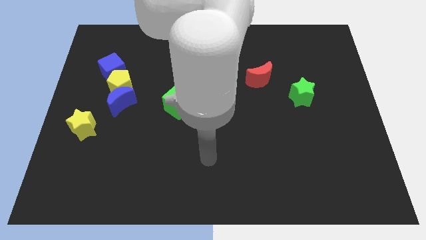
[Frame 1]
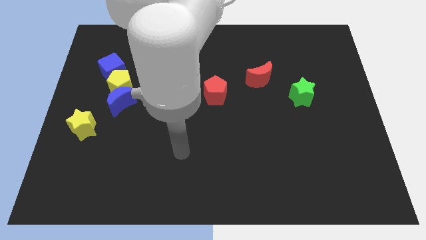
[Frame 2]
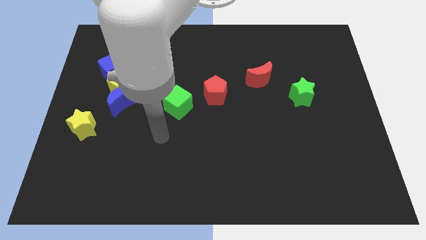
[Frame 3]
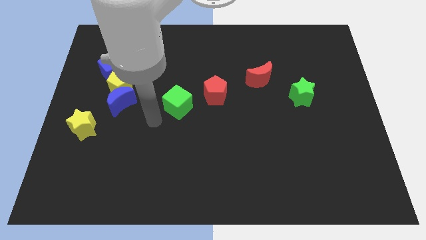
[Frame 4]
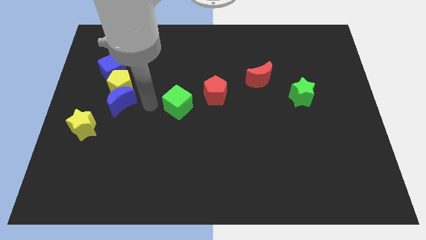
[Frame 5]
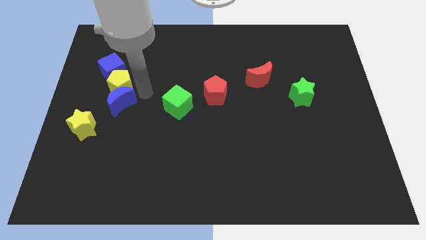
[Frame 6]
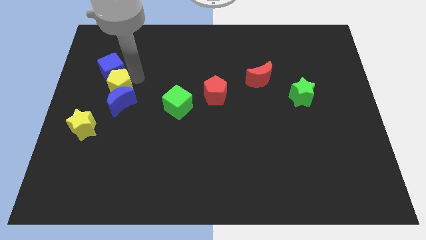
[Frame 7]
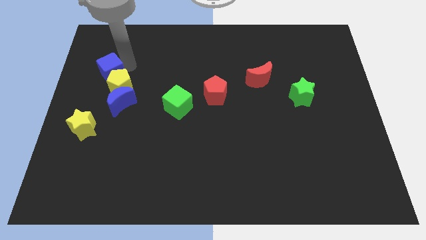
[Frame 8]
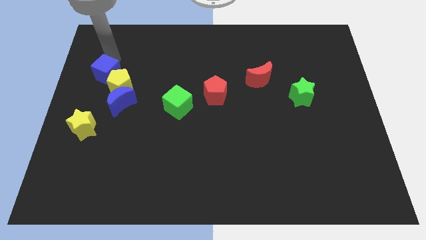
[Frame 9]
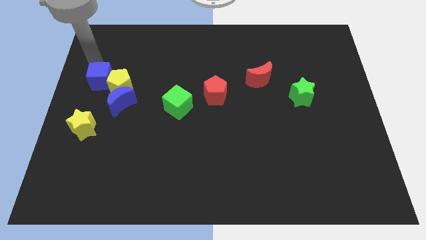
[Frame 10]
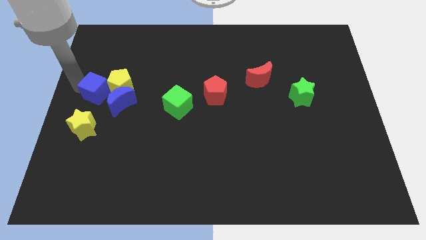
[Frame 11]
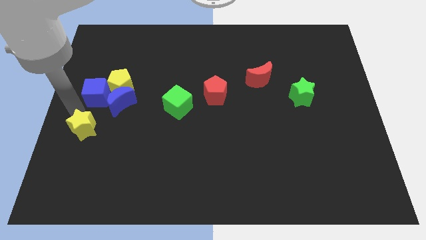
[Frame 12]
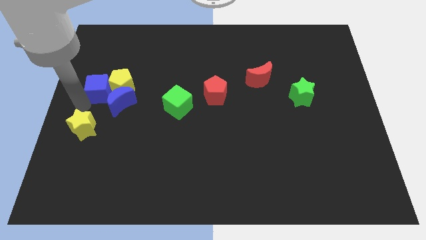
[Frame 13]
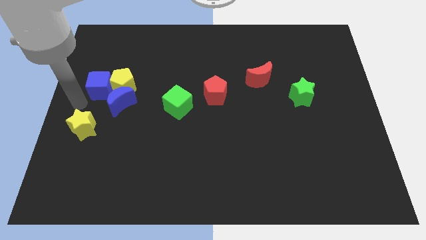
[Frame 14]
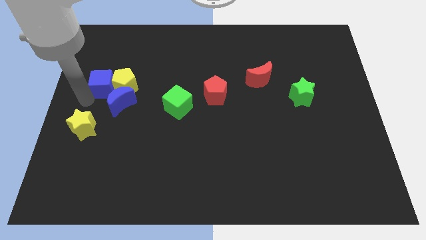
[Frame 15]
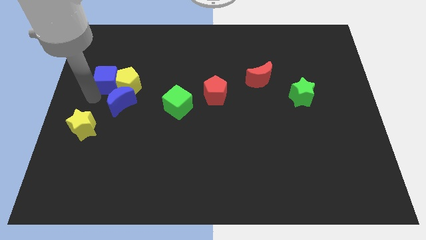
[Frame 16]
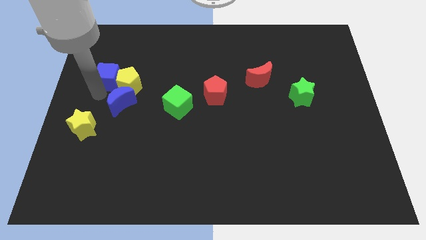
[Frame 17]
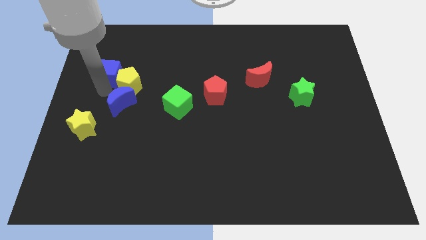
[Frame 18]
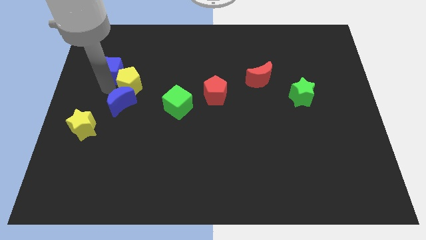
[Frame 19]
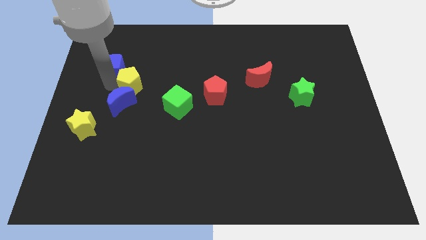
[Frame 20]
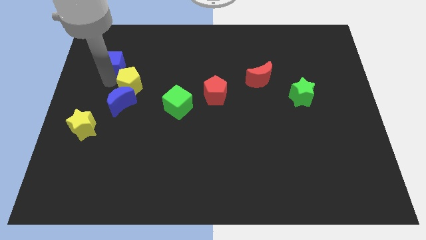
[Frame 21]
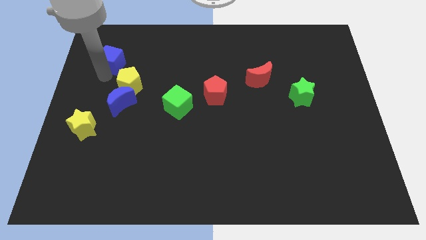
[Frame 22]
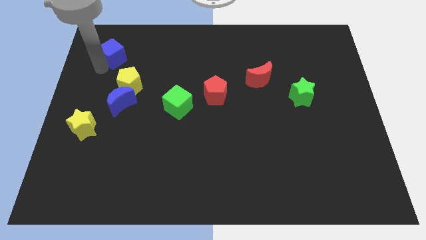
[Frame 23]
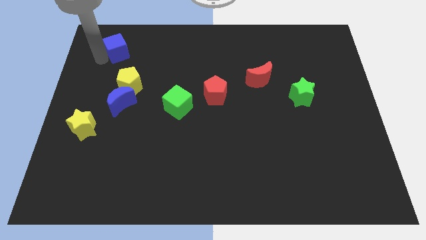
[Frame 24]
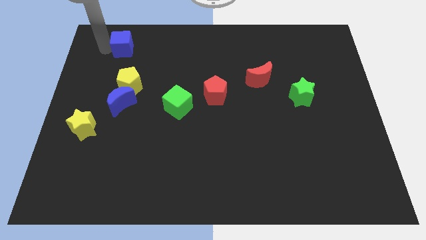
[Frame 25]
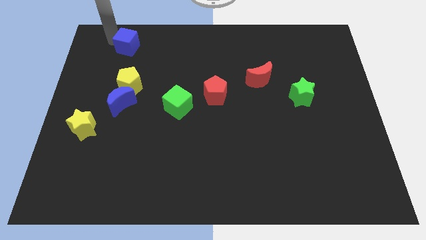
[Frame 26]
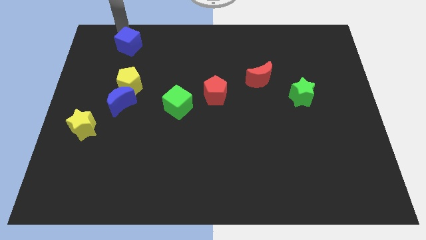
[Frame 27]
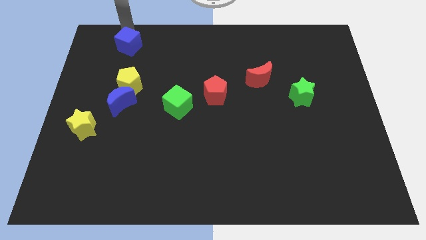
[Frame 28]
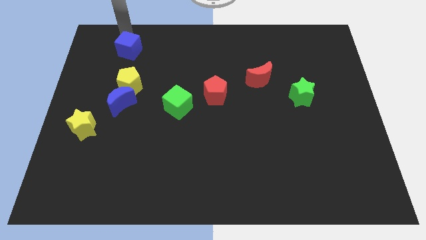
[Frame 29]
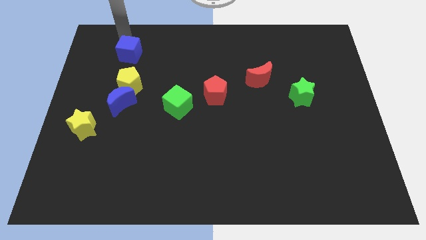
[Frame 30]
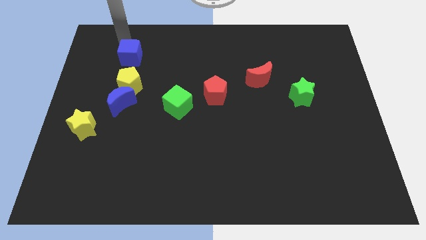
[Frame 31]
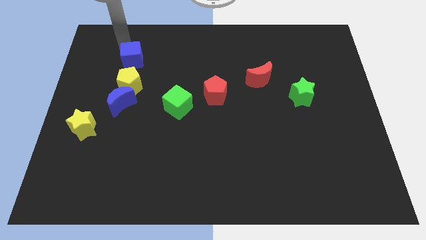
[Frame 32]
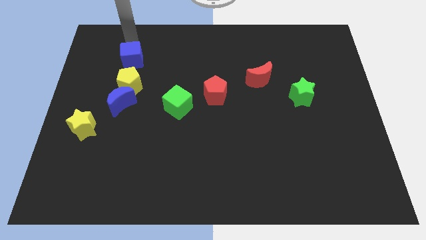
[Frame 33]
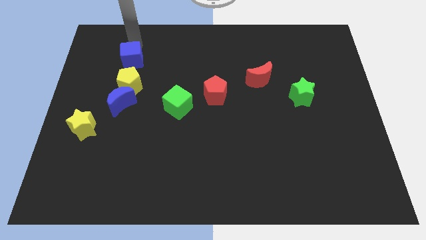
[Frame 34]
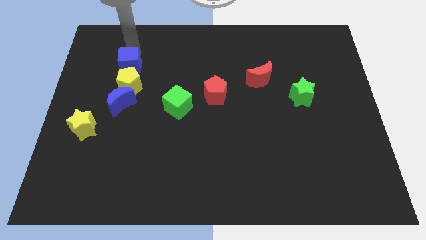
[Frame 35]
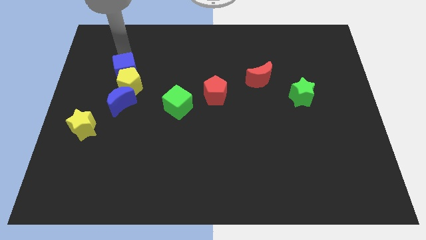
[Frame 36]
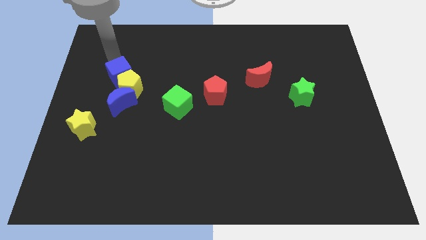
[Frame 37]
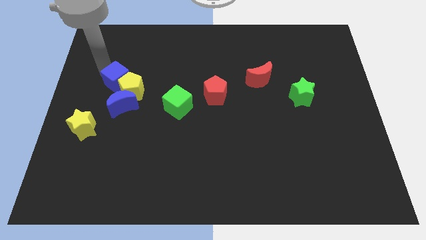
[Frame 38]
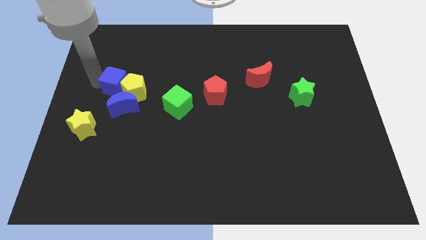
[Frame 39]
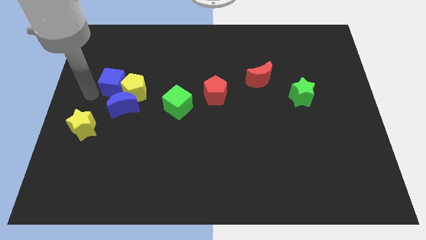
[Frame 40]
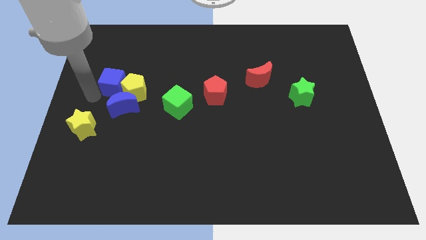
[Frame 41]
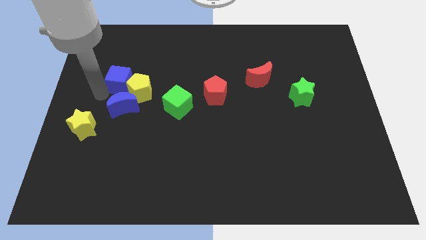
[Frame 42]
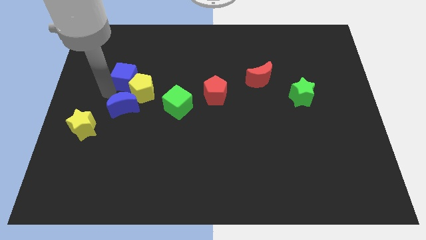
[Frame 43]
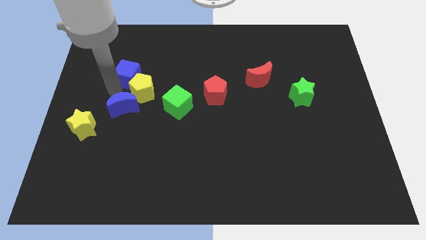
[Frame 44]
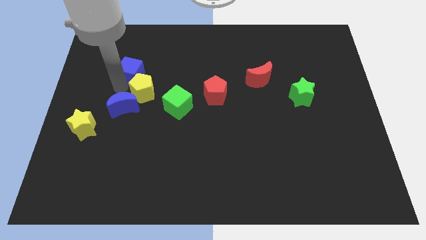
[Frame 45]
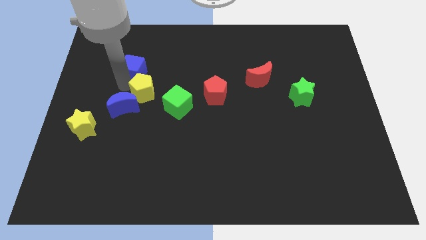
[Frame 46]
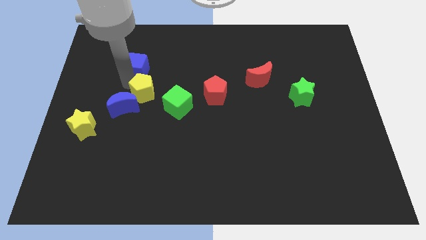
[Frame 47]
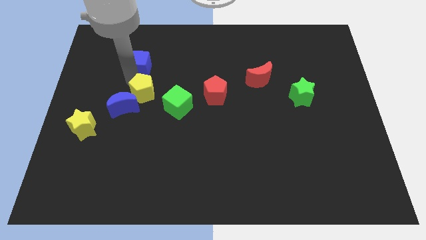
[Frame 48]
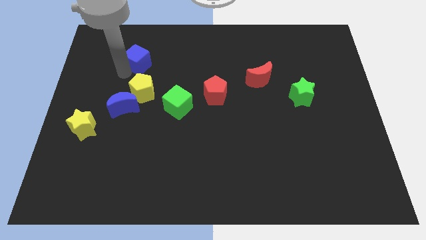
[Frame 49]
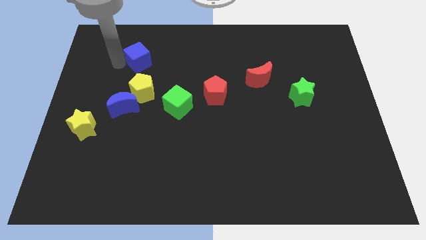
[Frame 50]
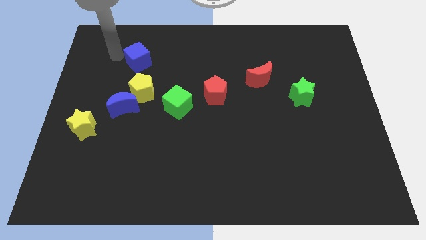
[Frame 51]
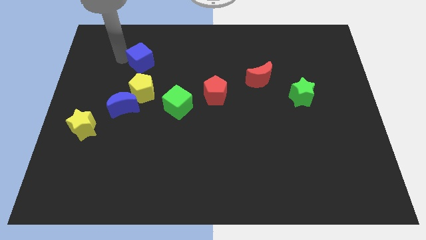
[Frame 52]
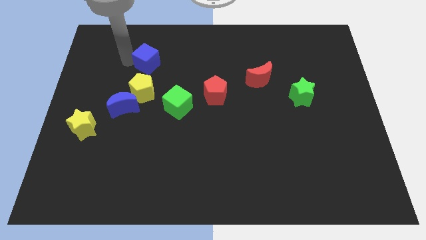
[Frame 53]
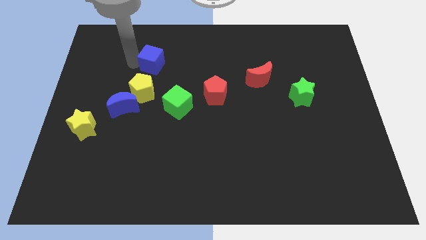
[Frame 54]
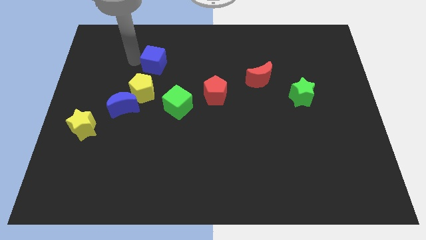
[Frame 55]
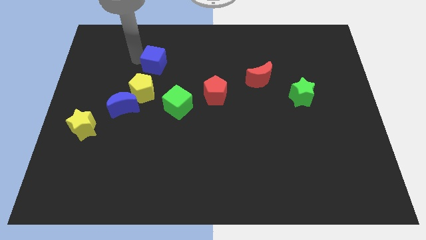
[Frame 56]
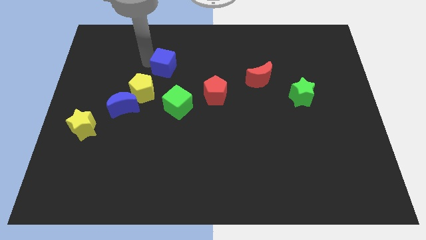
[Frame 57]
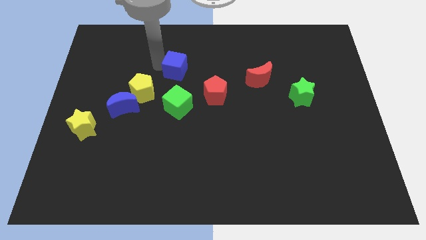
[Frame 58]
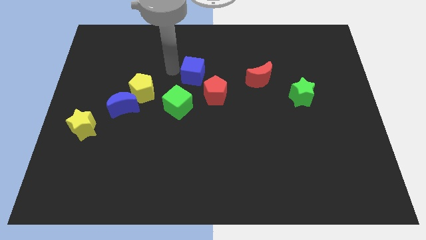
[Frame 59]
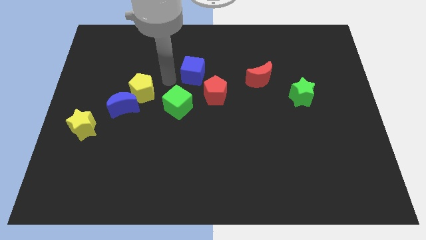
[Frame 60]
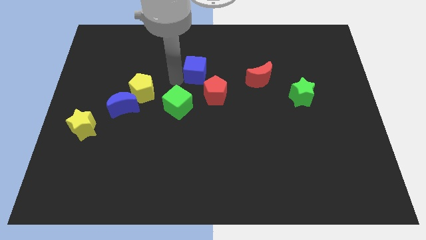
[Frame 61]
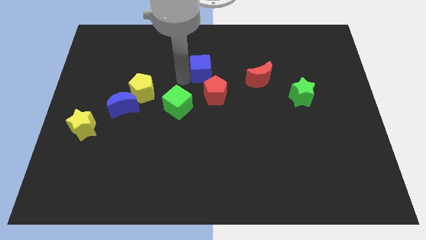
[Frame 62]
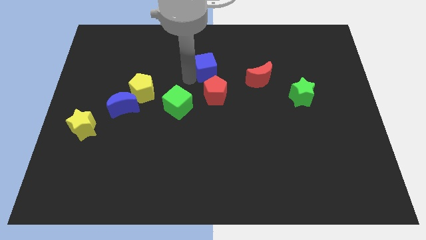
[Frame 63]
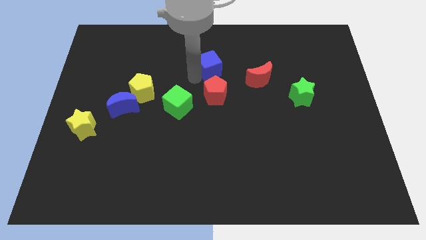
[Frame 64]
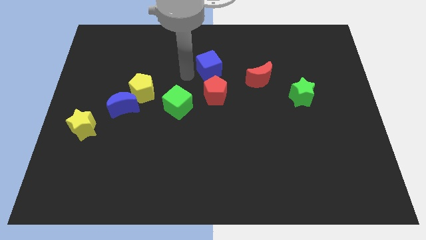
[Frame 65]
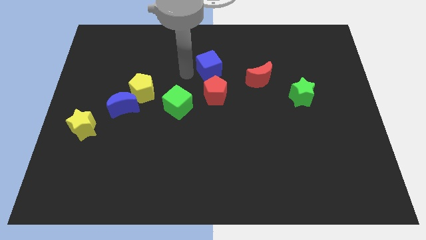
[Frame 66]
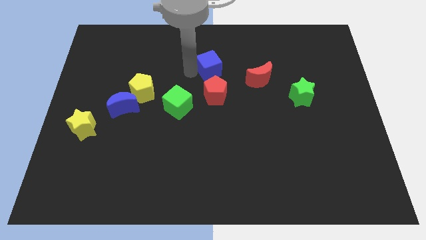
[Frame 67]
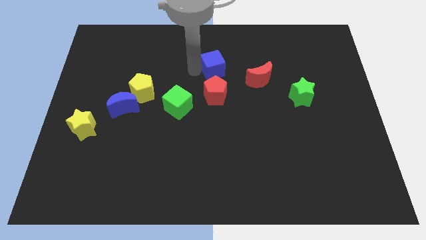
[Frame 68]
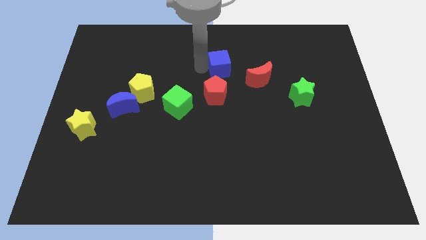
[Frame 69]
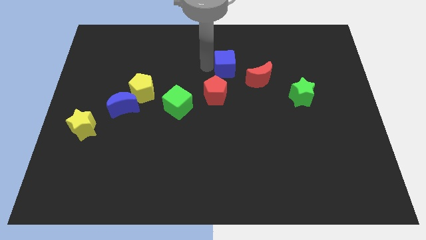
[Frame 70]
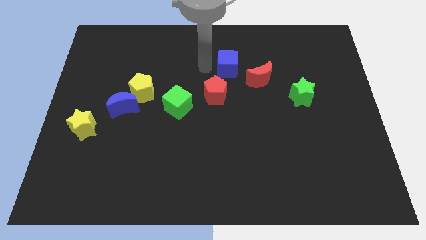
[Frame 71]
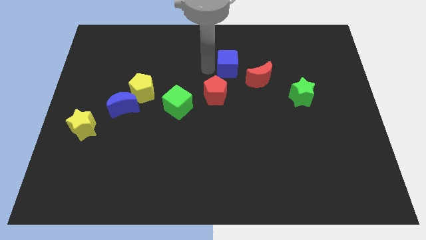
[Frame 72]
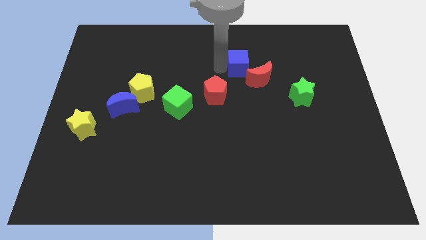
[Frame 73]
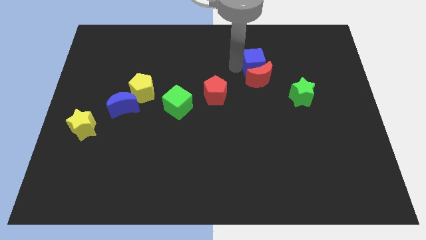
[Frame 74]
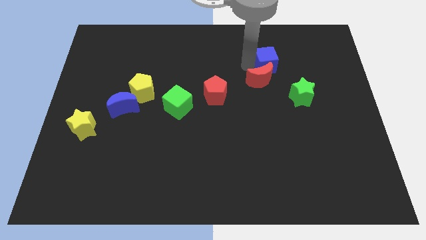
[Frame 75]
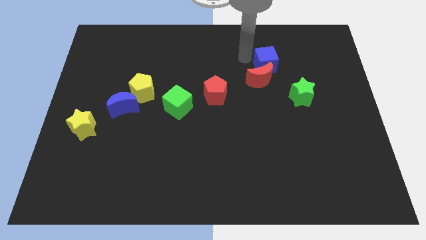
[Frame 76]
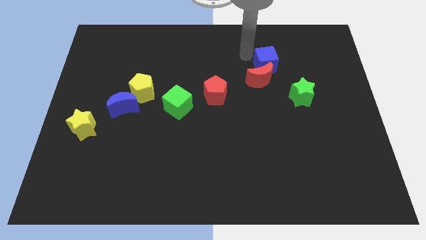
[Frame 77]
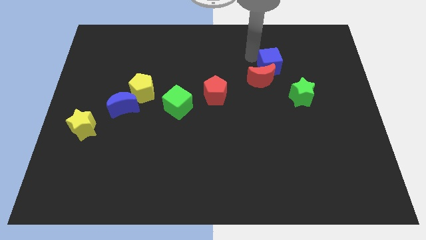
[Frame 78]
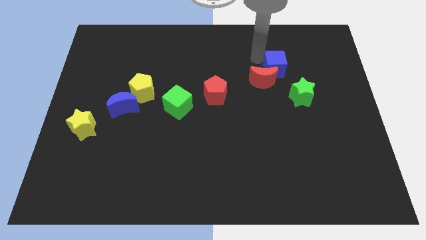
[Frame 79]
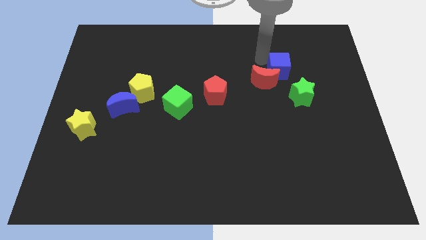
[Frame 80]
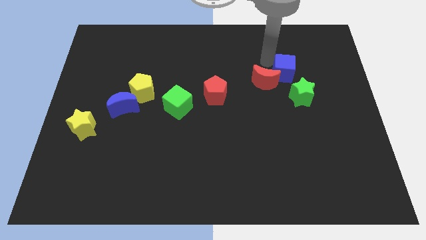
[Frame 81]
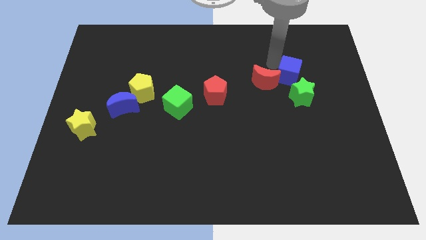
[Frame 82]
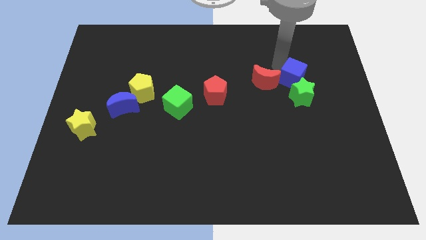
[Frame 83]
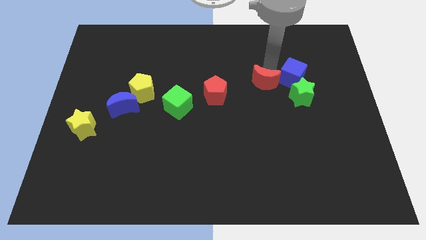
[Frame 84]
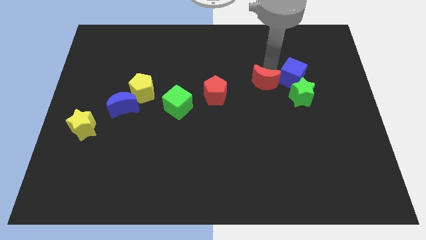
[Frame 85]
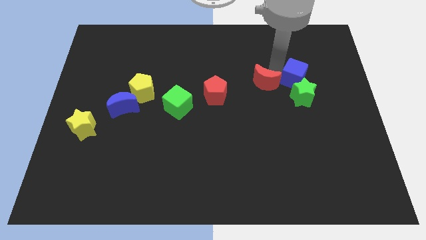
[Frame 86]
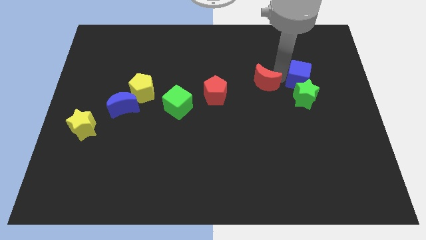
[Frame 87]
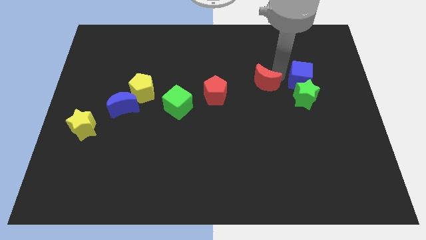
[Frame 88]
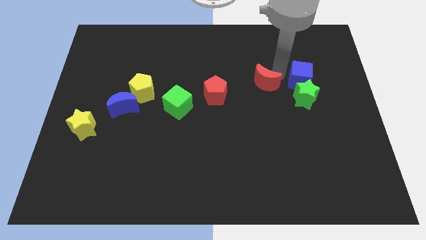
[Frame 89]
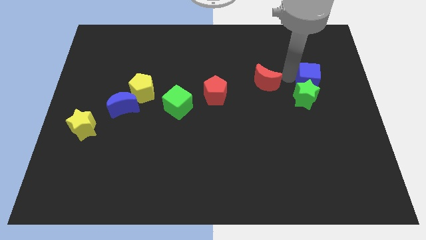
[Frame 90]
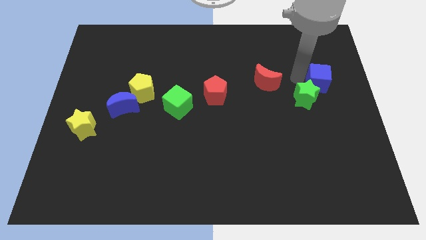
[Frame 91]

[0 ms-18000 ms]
slide the blue cube to the center right
